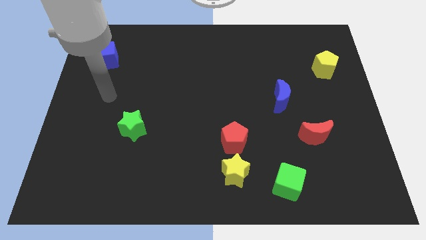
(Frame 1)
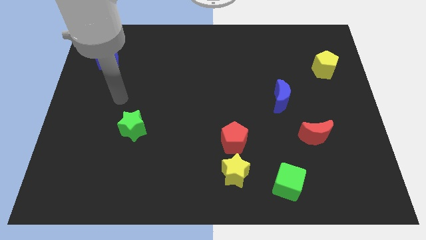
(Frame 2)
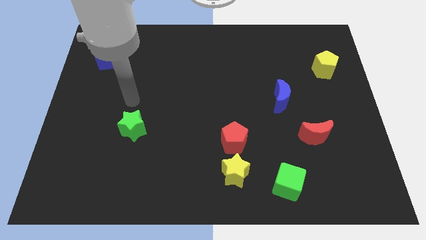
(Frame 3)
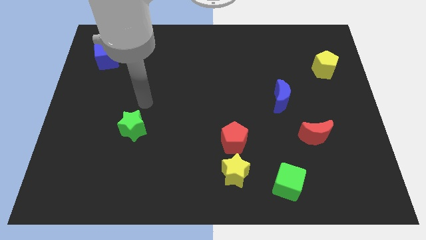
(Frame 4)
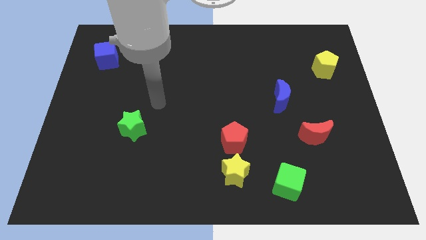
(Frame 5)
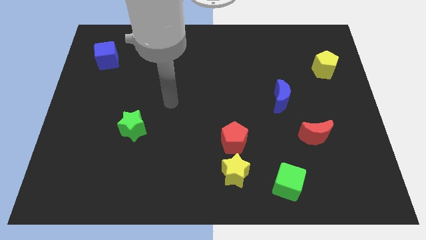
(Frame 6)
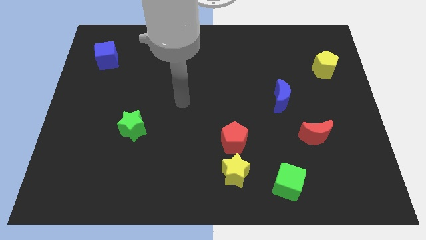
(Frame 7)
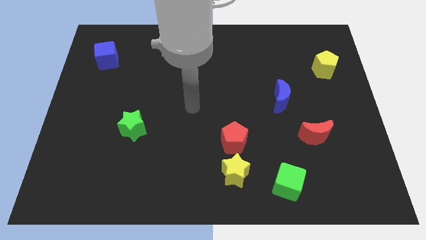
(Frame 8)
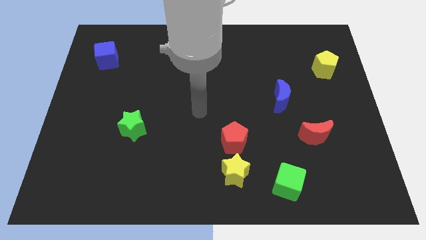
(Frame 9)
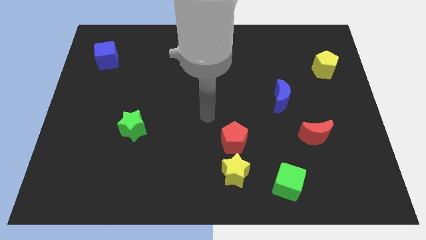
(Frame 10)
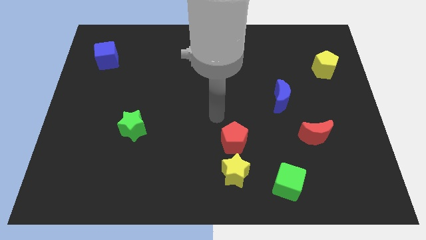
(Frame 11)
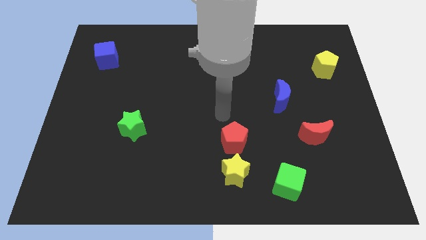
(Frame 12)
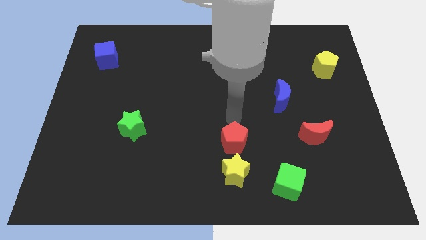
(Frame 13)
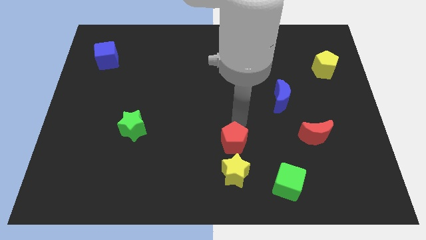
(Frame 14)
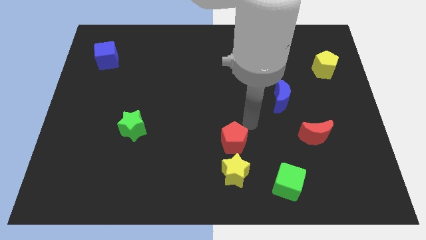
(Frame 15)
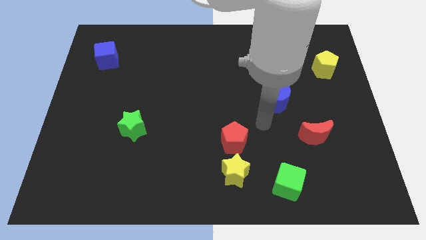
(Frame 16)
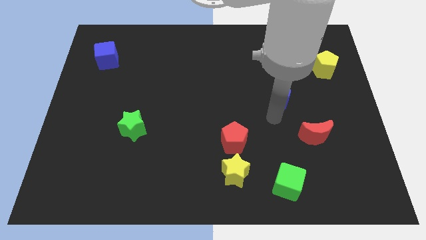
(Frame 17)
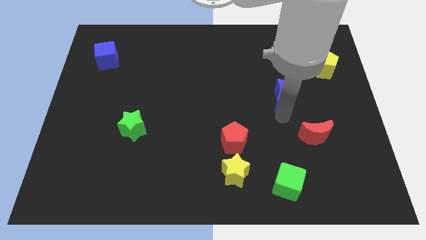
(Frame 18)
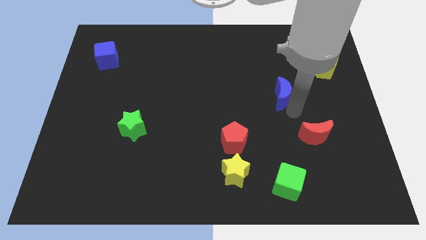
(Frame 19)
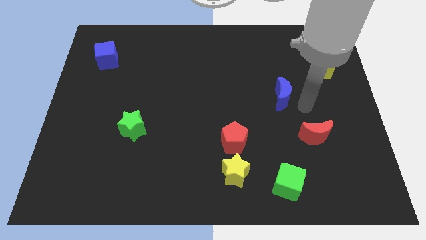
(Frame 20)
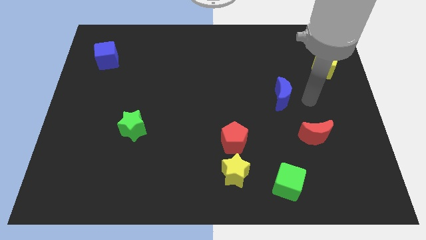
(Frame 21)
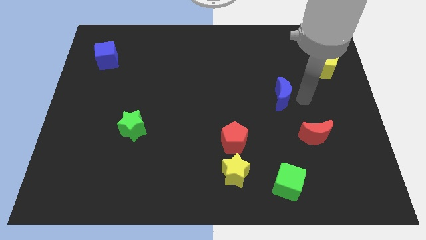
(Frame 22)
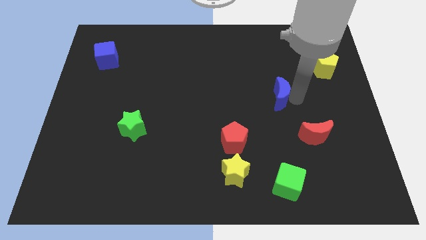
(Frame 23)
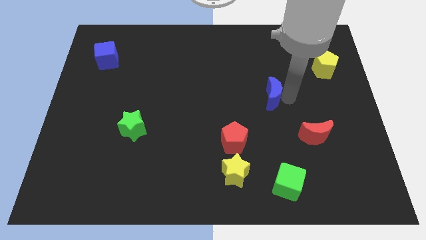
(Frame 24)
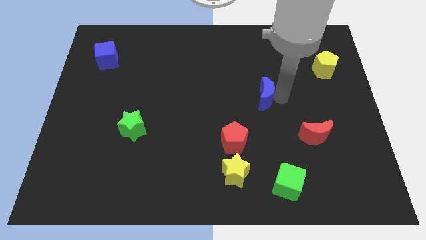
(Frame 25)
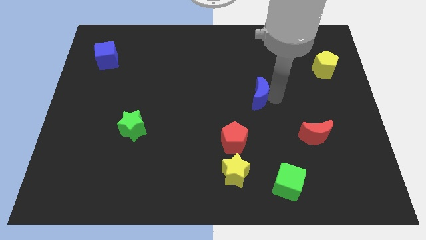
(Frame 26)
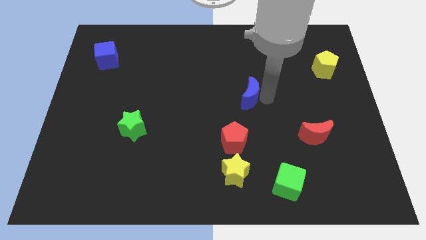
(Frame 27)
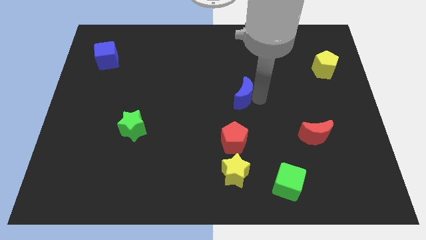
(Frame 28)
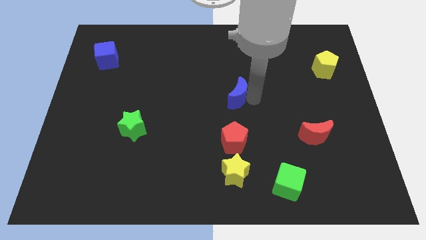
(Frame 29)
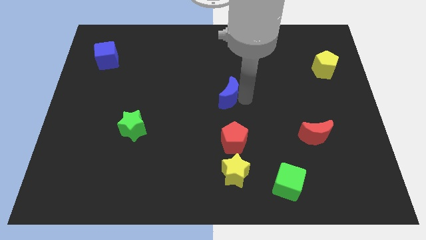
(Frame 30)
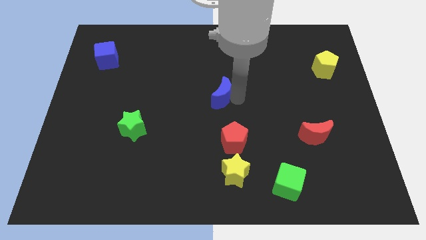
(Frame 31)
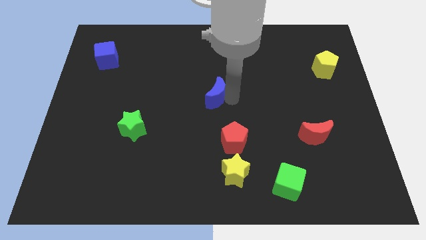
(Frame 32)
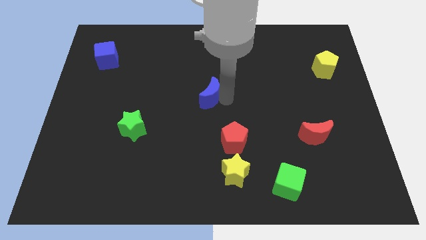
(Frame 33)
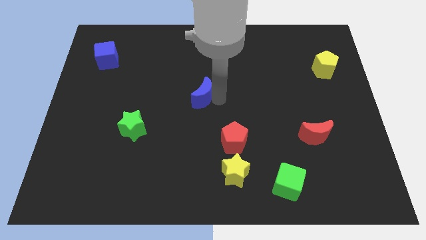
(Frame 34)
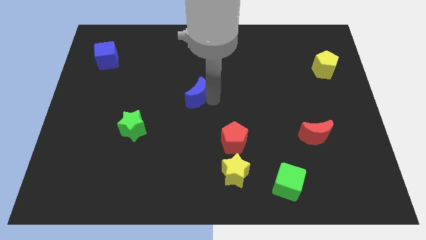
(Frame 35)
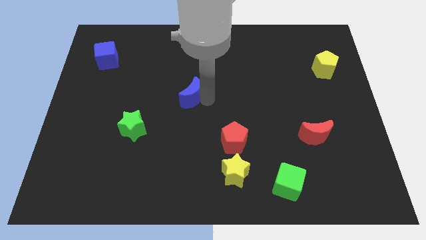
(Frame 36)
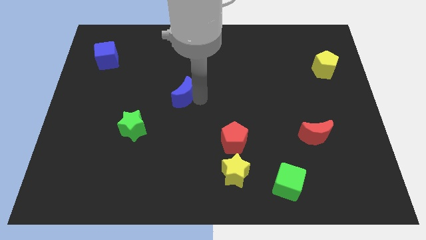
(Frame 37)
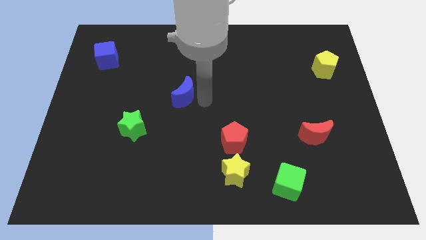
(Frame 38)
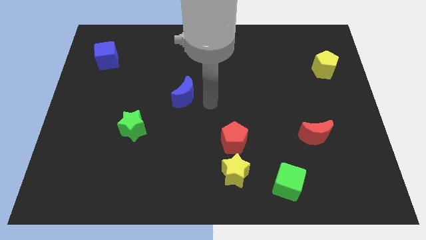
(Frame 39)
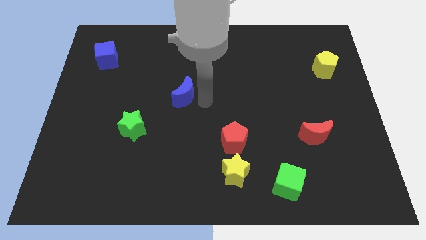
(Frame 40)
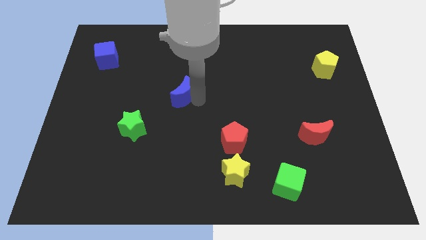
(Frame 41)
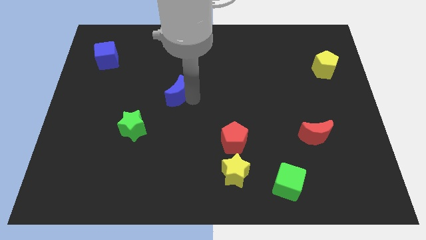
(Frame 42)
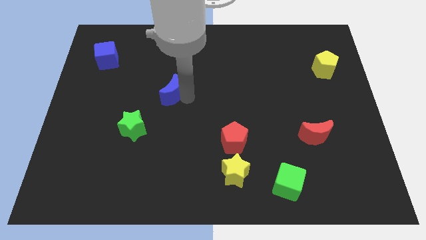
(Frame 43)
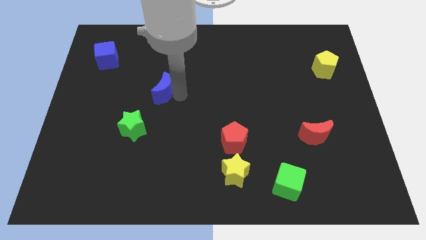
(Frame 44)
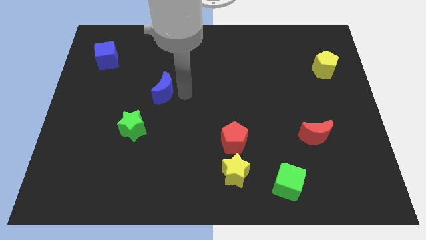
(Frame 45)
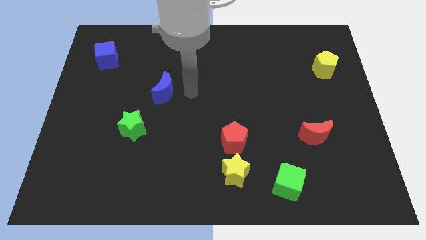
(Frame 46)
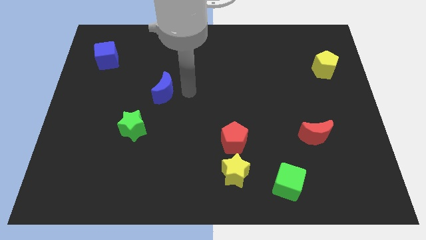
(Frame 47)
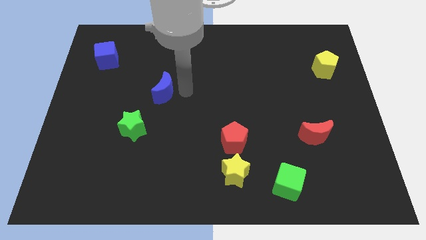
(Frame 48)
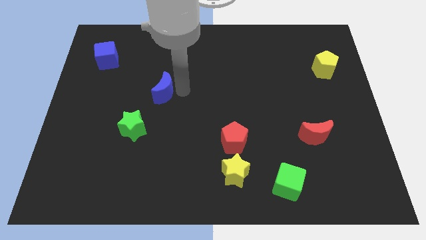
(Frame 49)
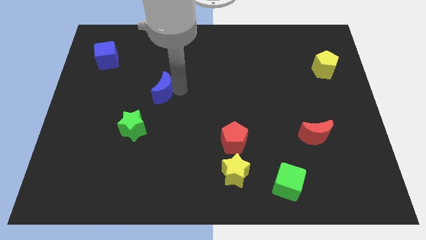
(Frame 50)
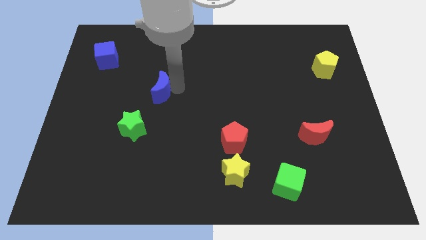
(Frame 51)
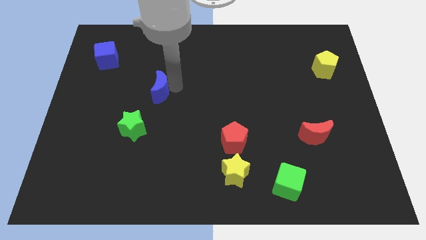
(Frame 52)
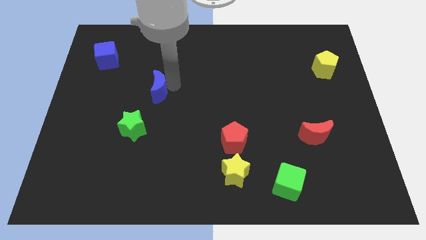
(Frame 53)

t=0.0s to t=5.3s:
push the blue moon above the green star

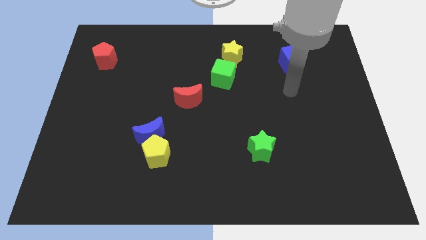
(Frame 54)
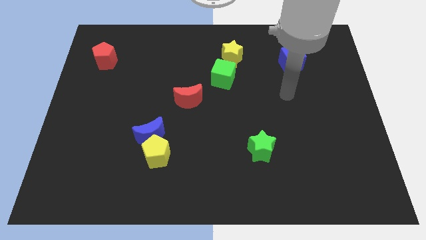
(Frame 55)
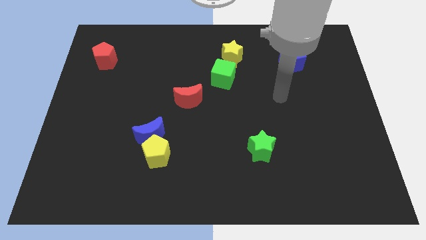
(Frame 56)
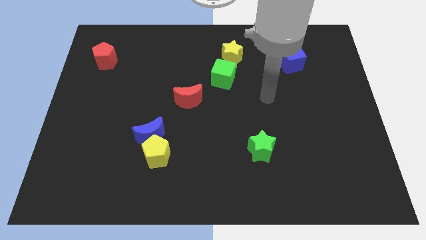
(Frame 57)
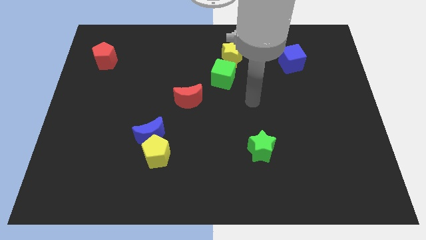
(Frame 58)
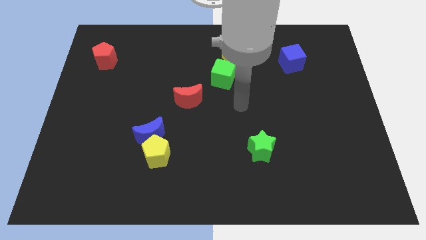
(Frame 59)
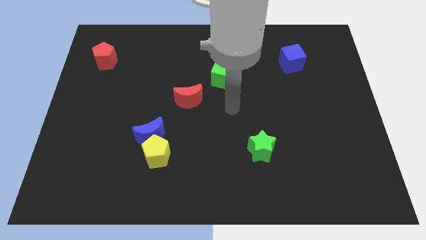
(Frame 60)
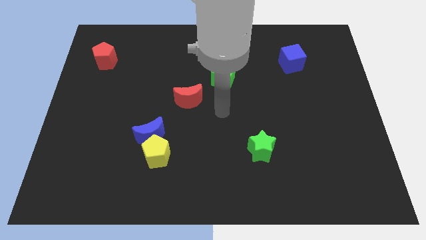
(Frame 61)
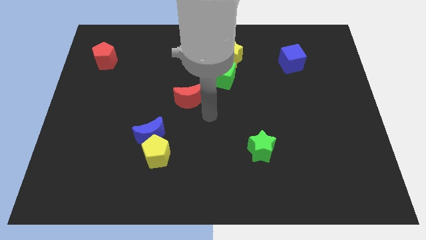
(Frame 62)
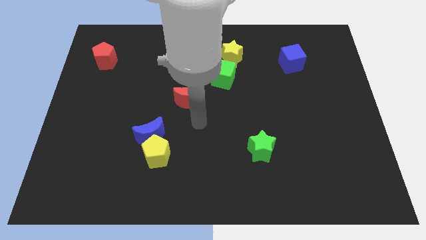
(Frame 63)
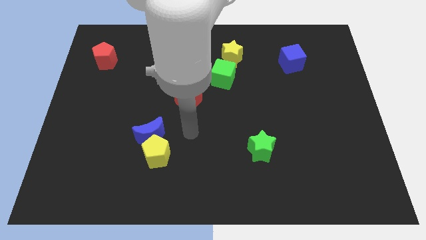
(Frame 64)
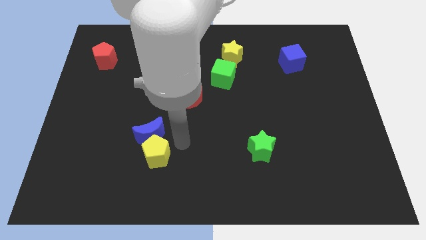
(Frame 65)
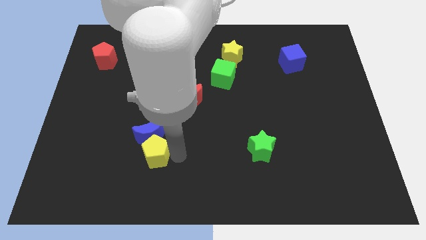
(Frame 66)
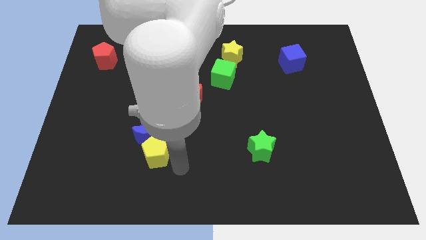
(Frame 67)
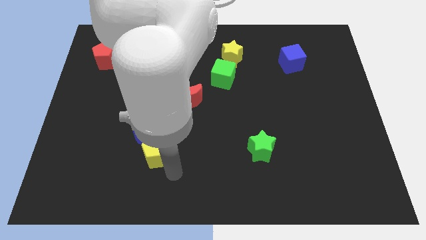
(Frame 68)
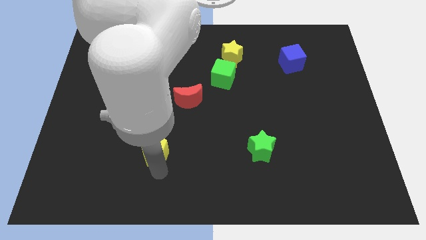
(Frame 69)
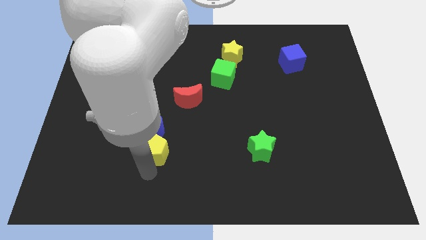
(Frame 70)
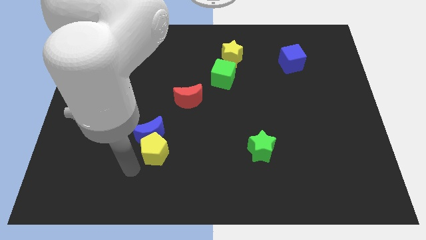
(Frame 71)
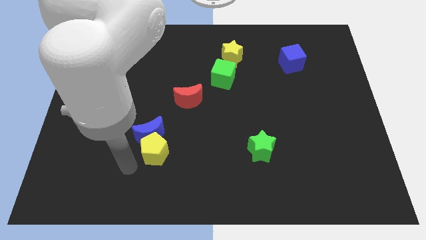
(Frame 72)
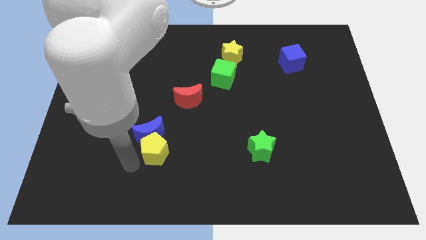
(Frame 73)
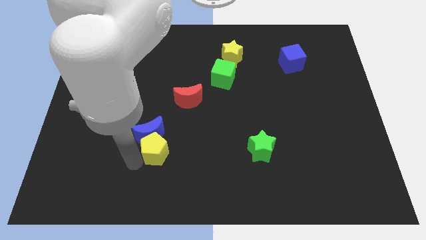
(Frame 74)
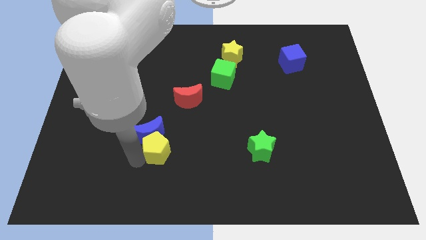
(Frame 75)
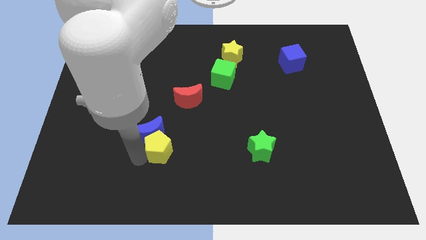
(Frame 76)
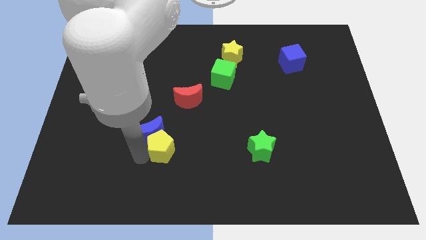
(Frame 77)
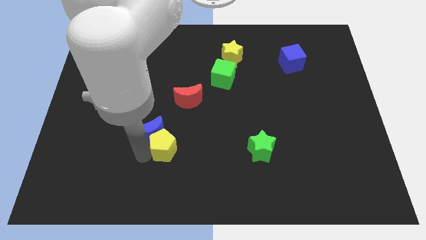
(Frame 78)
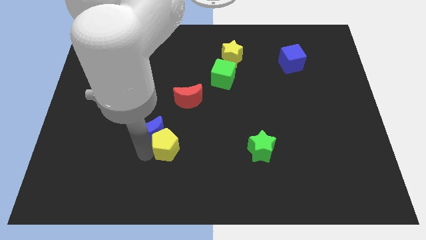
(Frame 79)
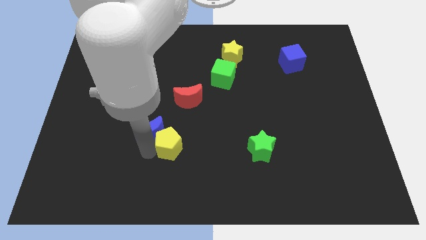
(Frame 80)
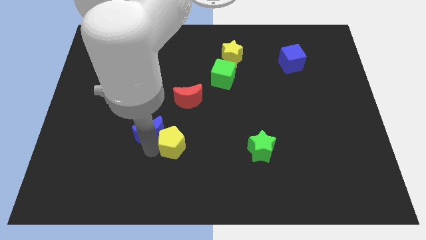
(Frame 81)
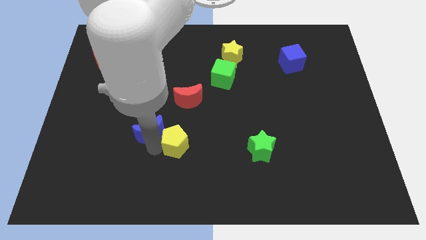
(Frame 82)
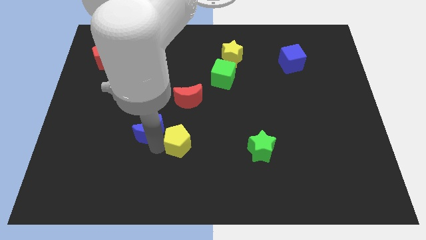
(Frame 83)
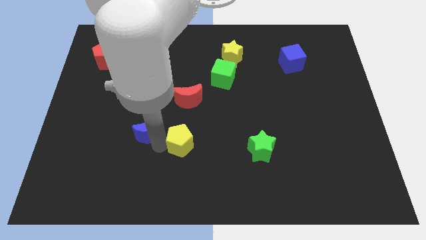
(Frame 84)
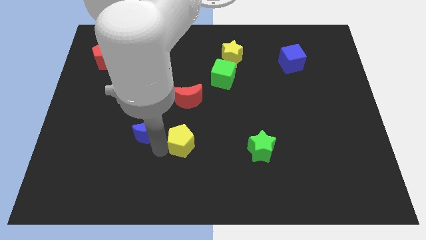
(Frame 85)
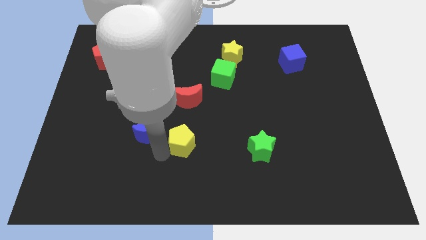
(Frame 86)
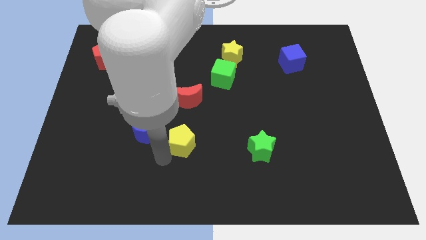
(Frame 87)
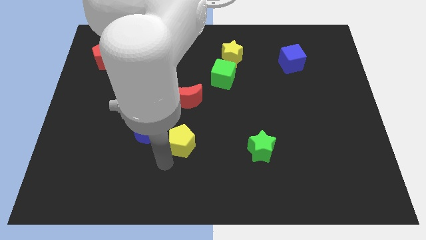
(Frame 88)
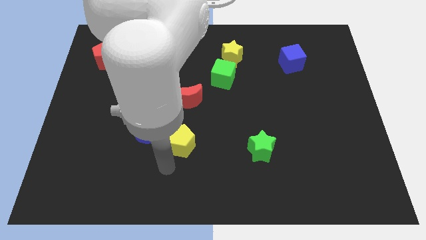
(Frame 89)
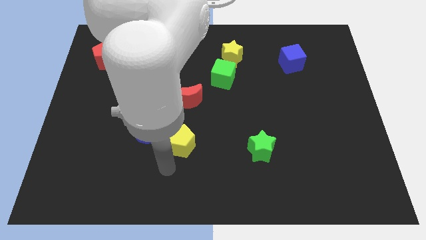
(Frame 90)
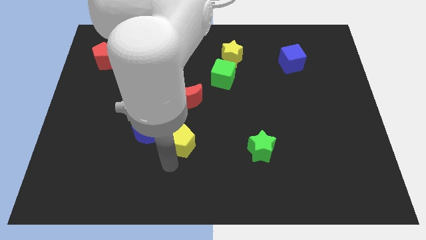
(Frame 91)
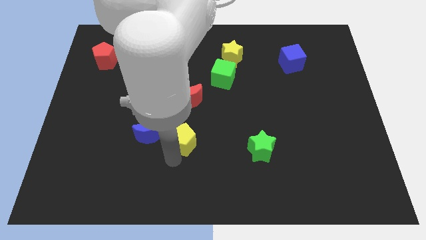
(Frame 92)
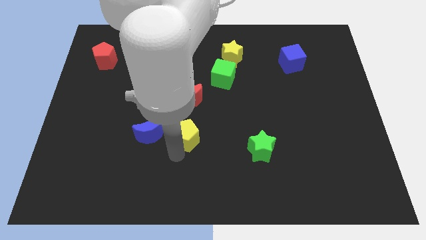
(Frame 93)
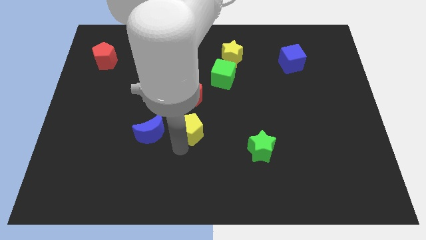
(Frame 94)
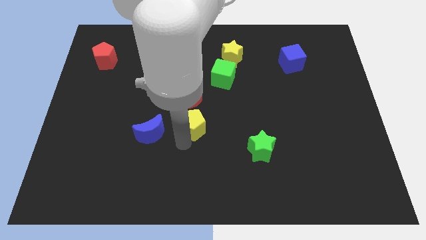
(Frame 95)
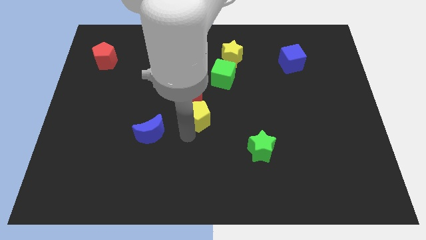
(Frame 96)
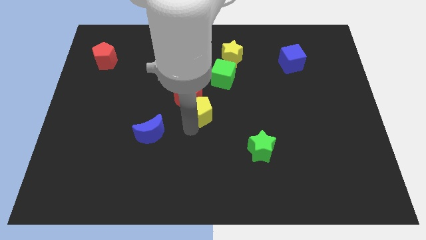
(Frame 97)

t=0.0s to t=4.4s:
push the yellow pentagon just right of the red moon
